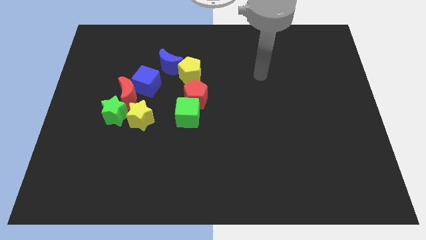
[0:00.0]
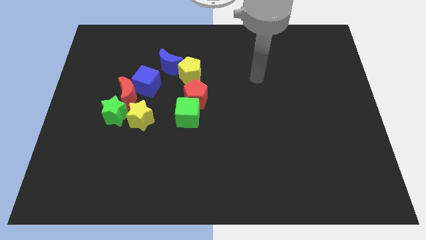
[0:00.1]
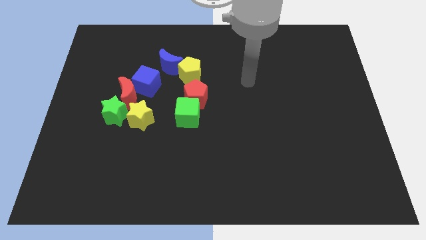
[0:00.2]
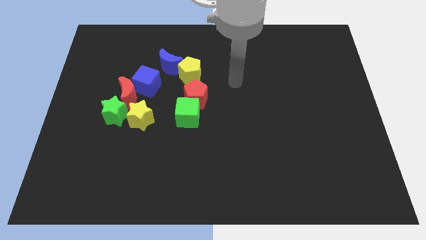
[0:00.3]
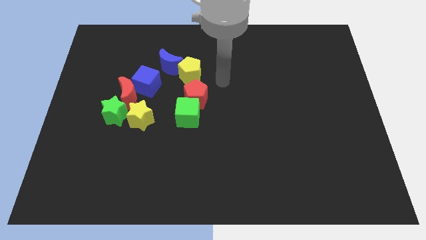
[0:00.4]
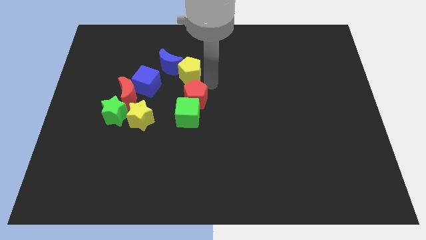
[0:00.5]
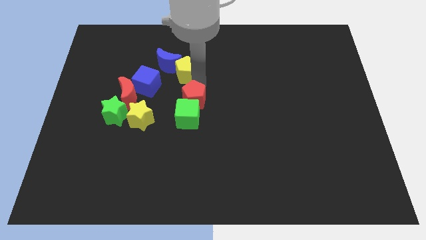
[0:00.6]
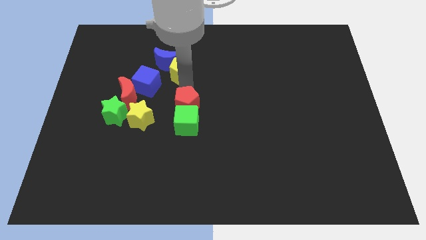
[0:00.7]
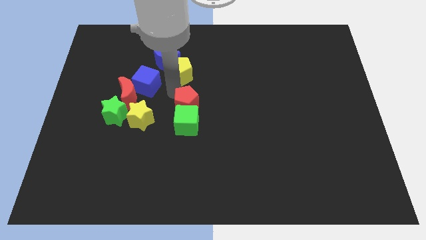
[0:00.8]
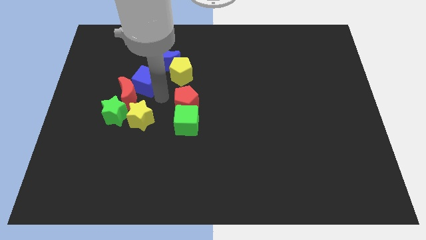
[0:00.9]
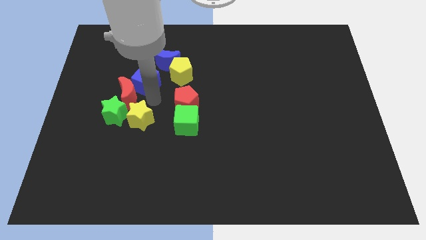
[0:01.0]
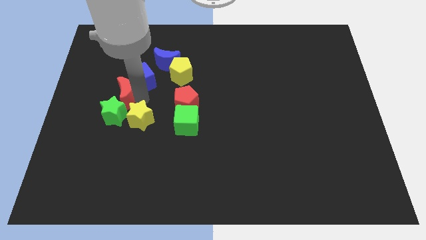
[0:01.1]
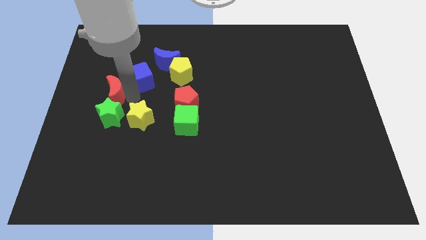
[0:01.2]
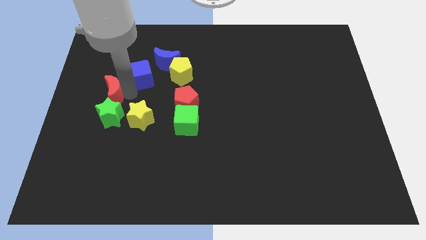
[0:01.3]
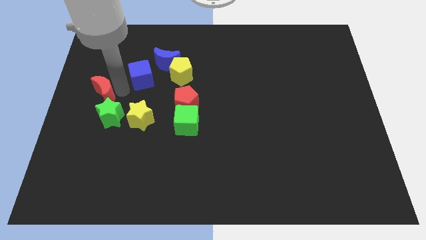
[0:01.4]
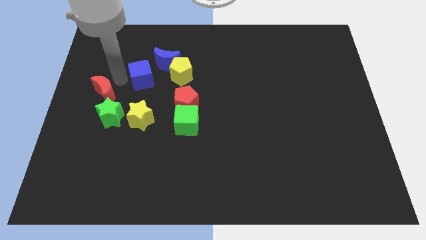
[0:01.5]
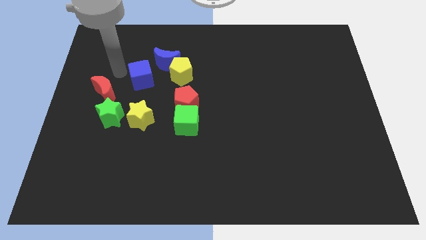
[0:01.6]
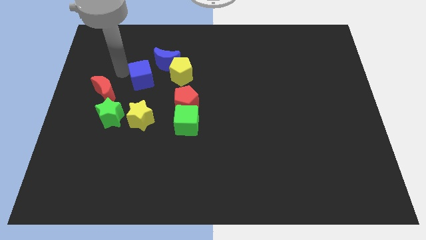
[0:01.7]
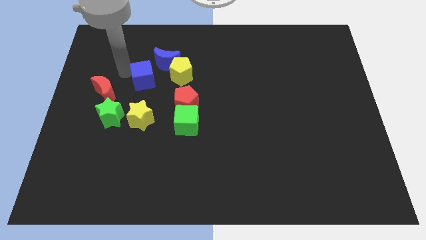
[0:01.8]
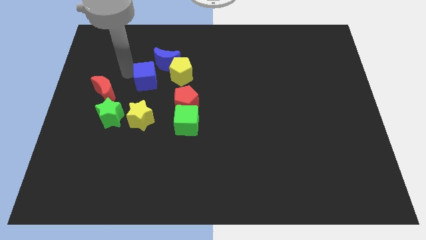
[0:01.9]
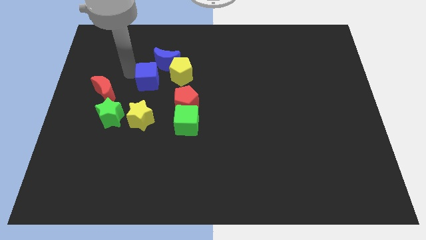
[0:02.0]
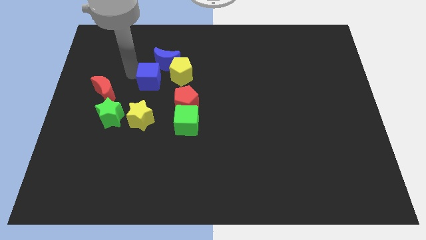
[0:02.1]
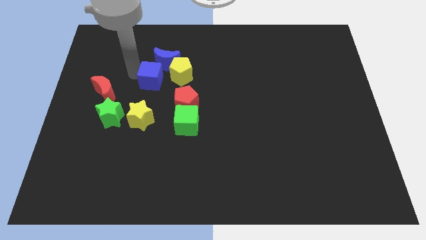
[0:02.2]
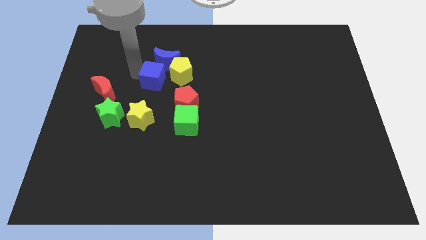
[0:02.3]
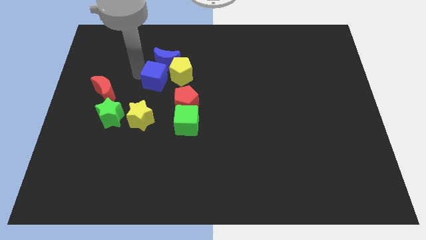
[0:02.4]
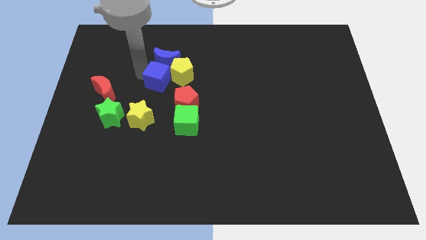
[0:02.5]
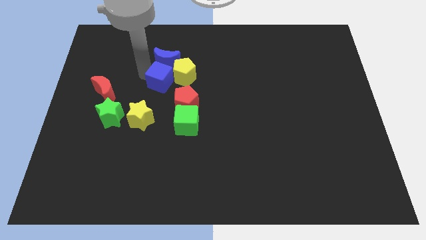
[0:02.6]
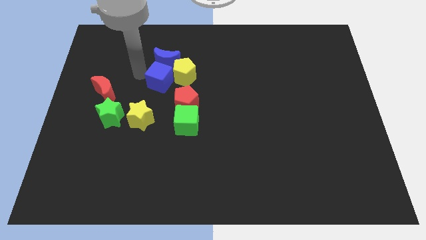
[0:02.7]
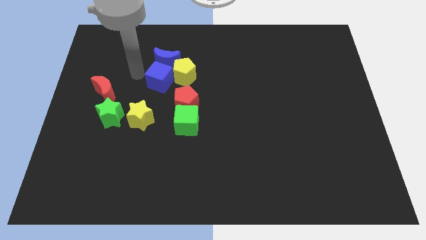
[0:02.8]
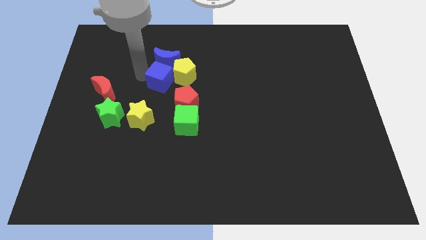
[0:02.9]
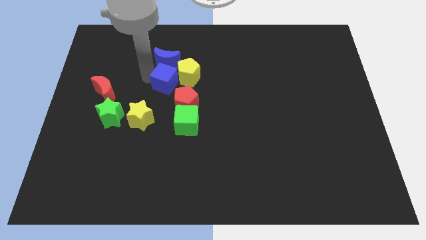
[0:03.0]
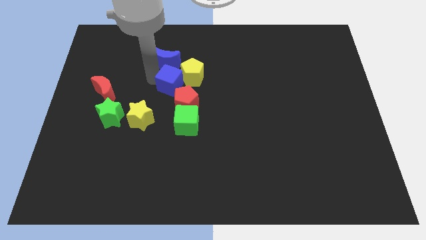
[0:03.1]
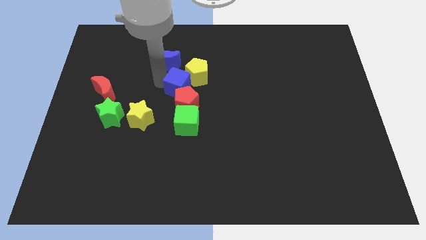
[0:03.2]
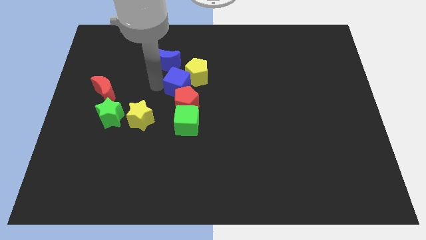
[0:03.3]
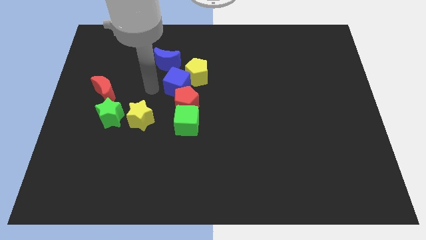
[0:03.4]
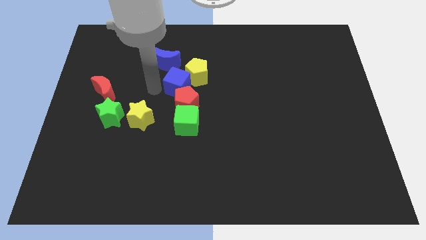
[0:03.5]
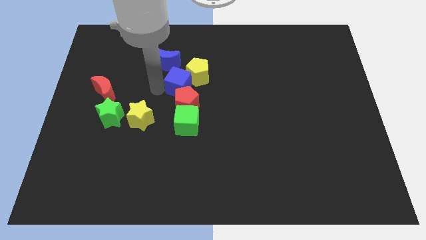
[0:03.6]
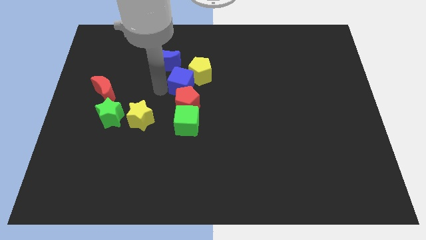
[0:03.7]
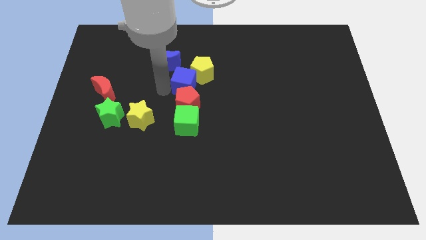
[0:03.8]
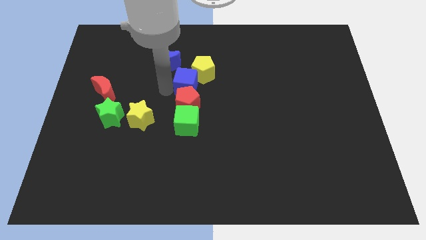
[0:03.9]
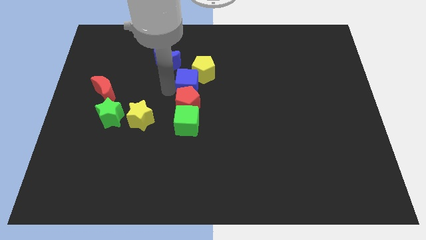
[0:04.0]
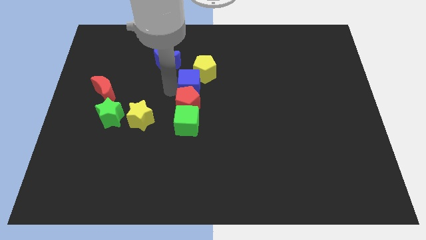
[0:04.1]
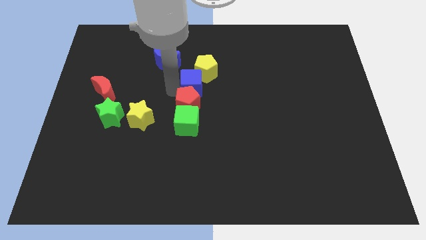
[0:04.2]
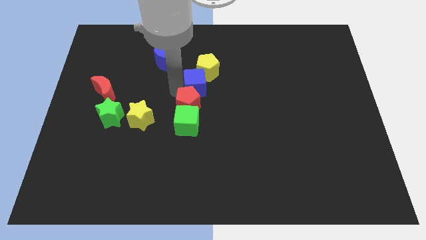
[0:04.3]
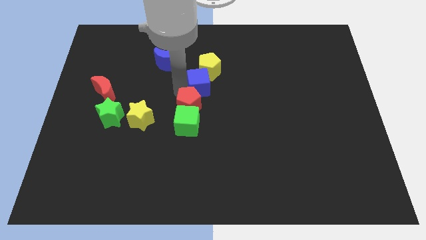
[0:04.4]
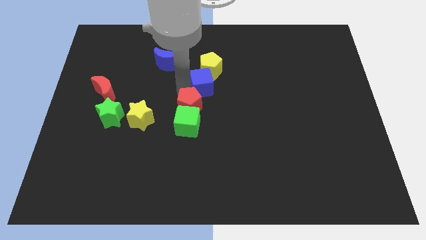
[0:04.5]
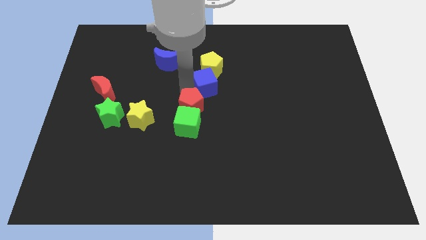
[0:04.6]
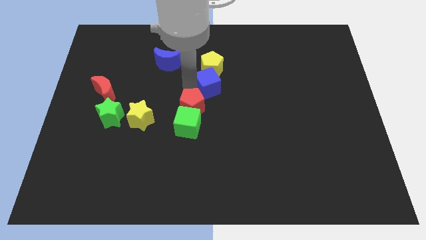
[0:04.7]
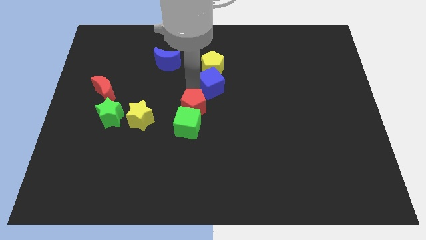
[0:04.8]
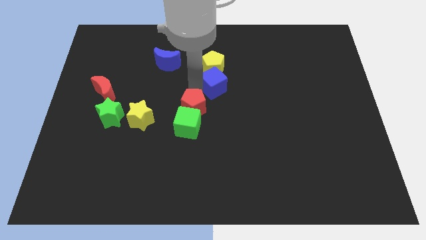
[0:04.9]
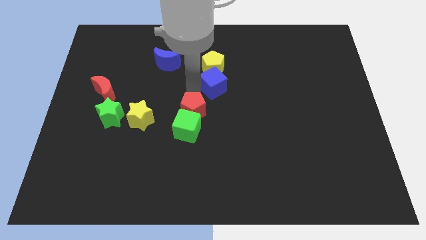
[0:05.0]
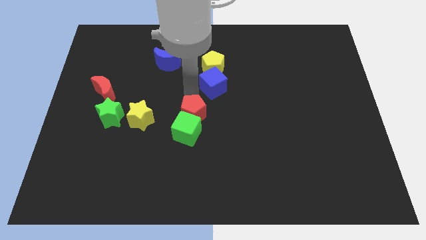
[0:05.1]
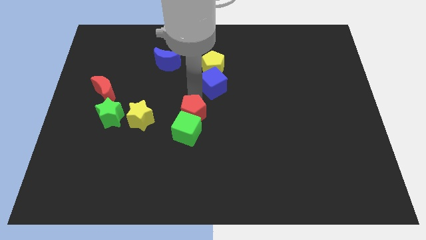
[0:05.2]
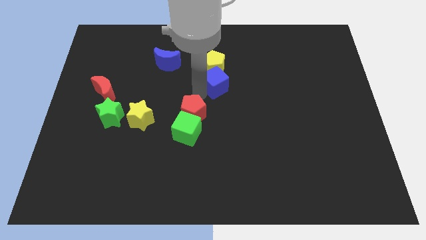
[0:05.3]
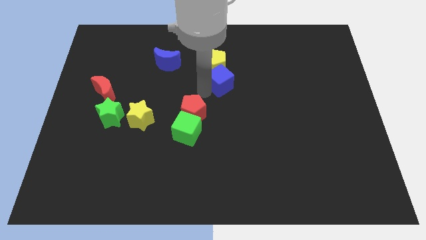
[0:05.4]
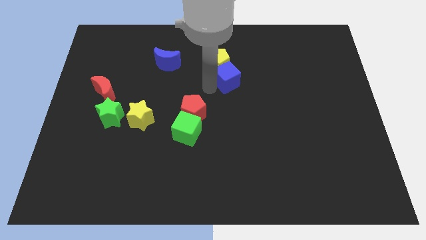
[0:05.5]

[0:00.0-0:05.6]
move the blue cube right

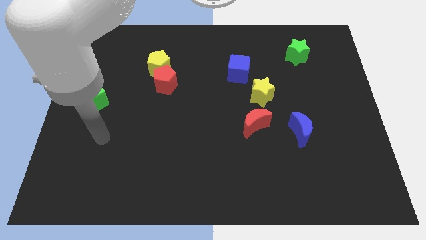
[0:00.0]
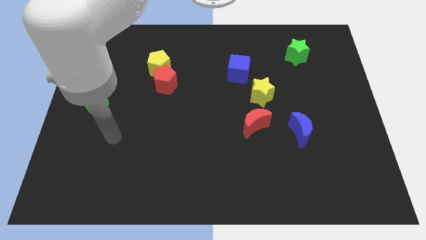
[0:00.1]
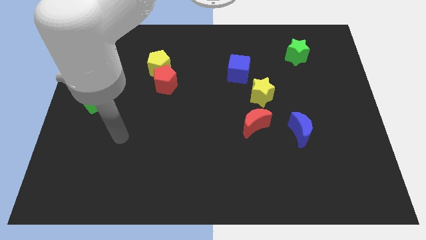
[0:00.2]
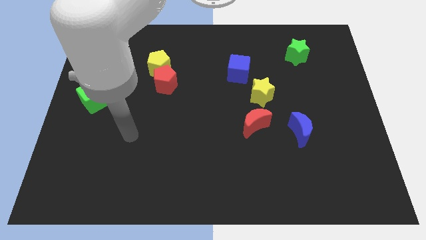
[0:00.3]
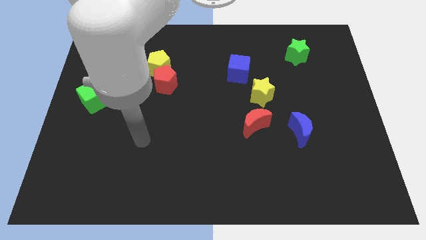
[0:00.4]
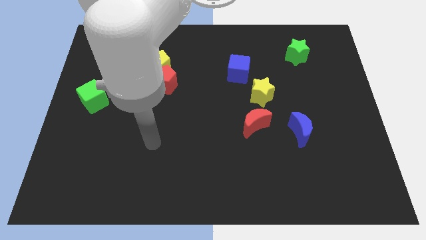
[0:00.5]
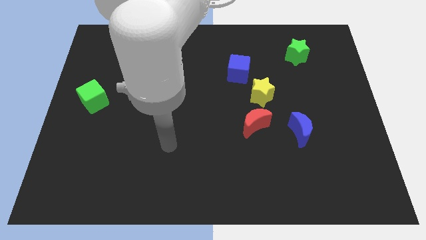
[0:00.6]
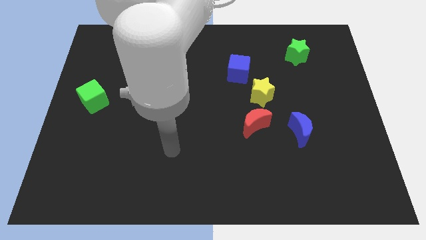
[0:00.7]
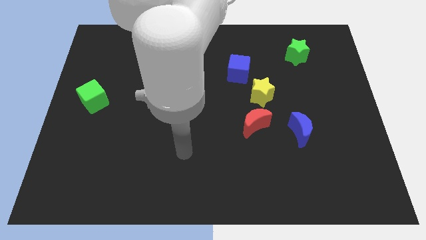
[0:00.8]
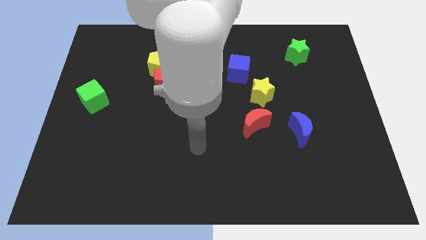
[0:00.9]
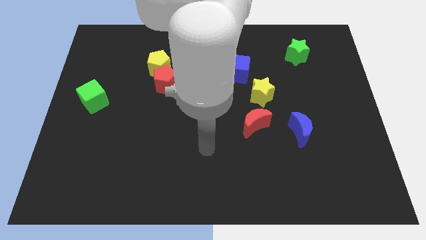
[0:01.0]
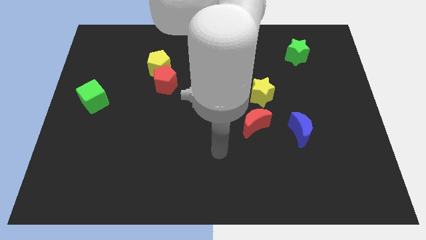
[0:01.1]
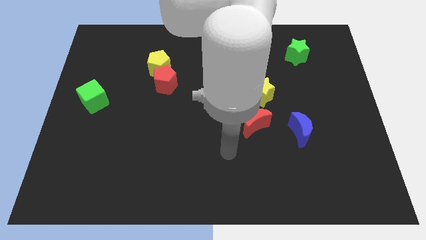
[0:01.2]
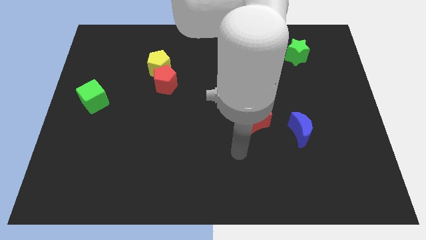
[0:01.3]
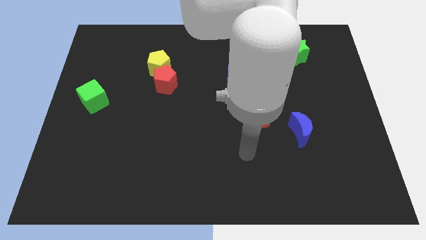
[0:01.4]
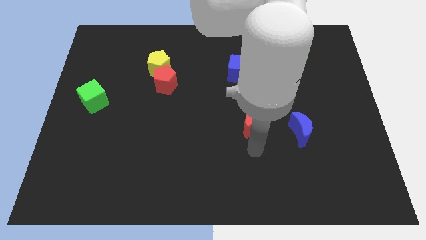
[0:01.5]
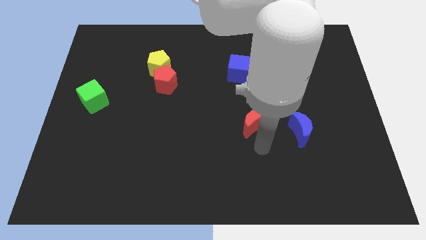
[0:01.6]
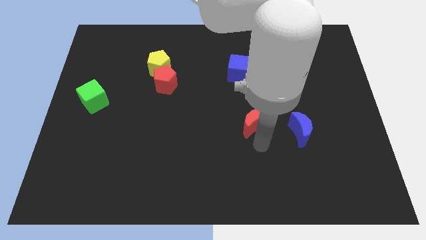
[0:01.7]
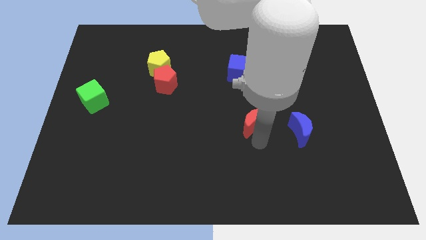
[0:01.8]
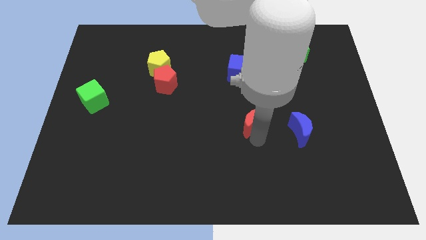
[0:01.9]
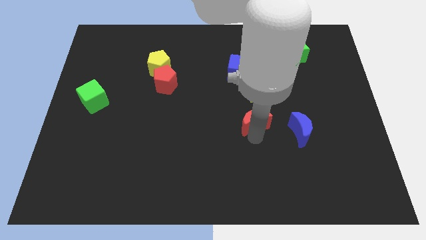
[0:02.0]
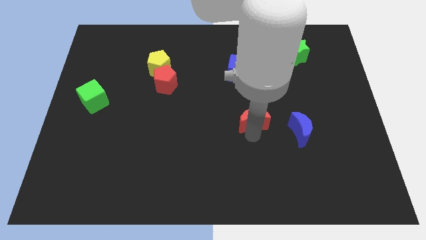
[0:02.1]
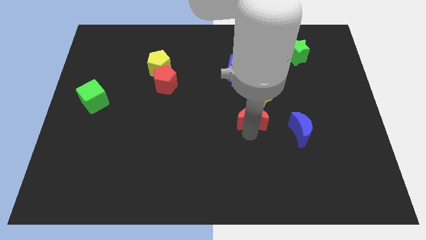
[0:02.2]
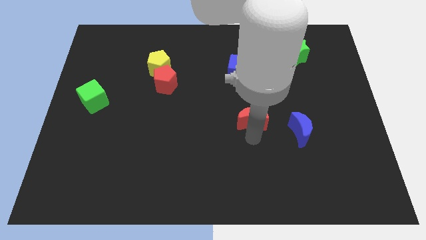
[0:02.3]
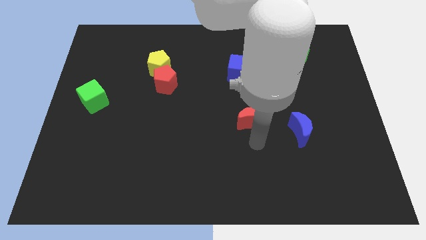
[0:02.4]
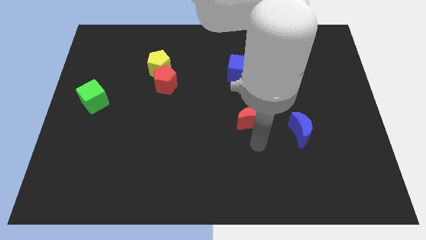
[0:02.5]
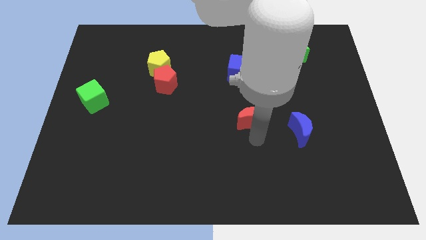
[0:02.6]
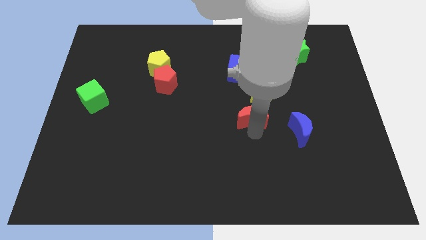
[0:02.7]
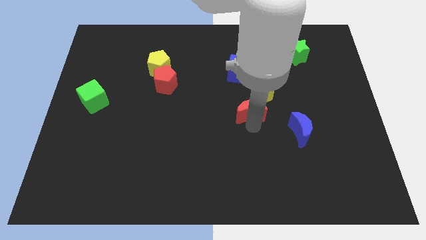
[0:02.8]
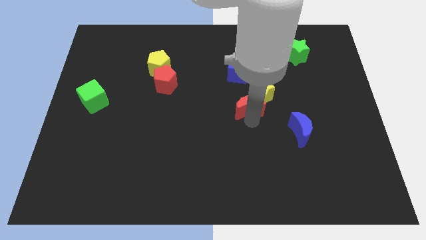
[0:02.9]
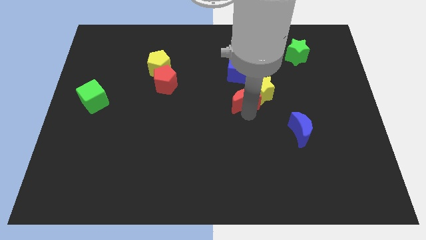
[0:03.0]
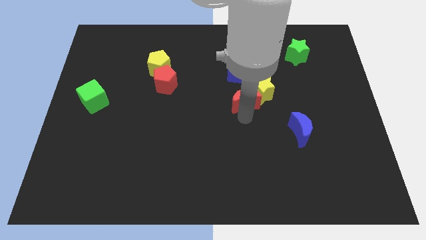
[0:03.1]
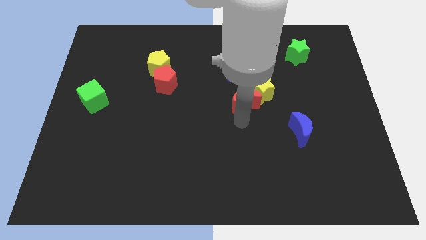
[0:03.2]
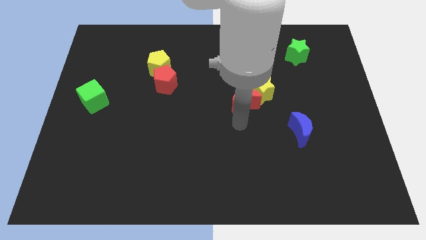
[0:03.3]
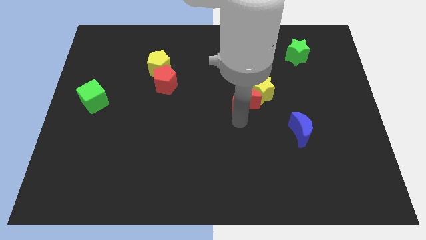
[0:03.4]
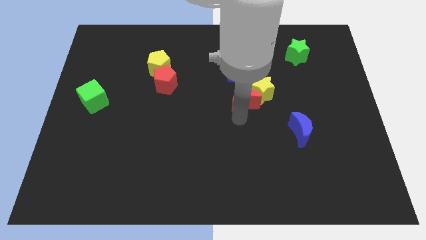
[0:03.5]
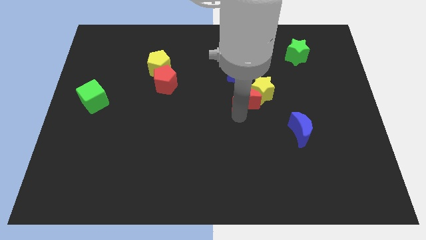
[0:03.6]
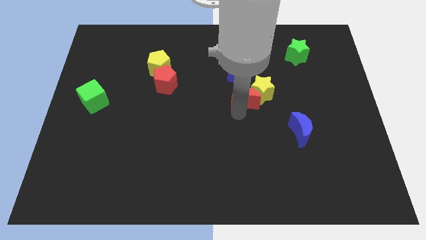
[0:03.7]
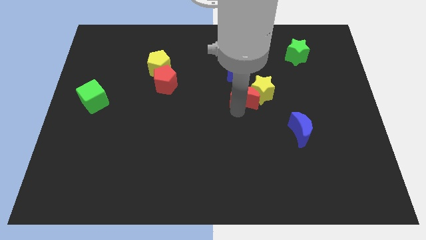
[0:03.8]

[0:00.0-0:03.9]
slide the red moon up slightly
